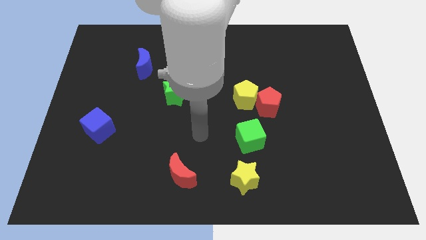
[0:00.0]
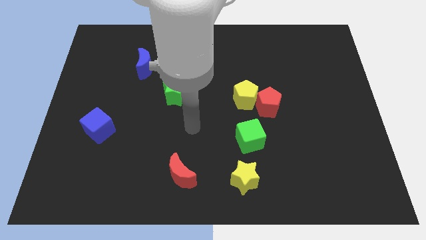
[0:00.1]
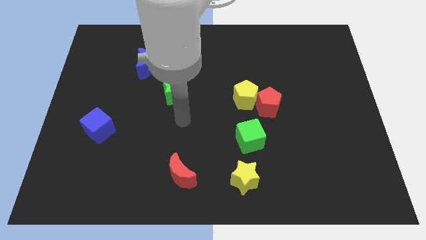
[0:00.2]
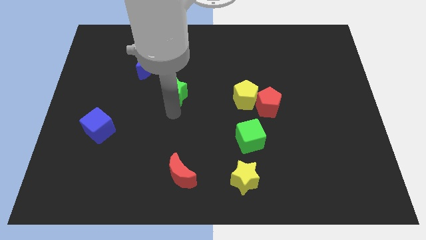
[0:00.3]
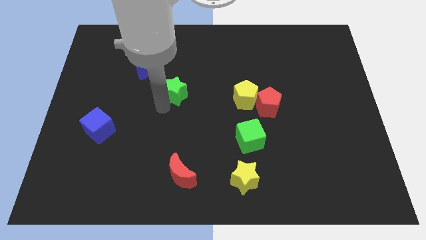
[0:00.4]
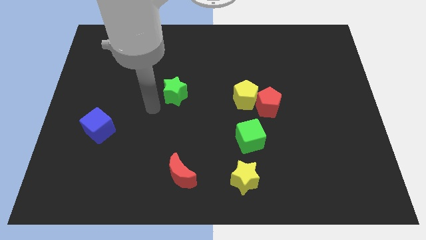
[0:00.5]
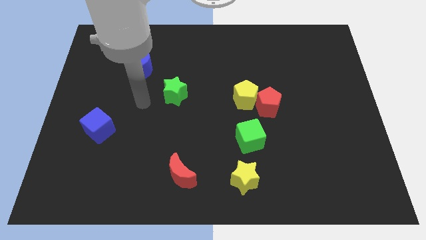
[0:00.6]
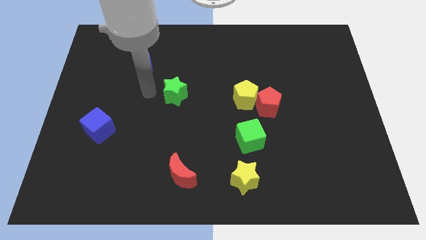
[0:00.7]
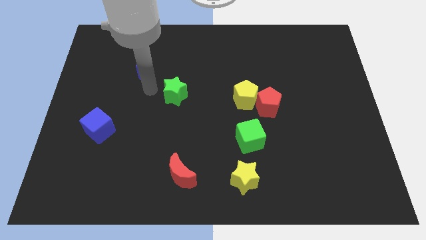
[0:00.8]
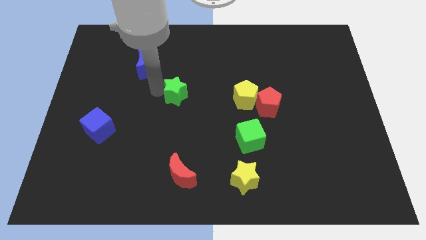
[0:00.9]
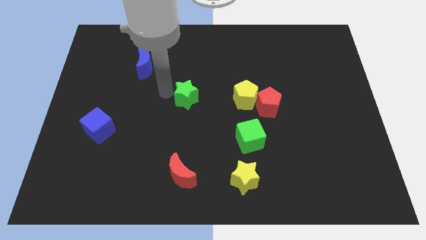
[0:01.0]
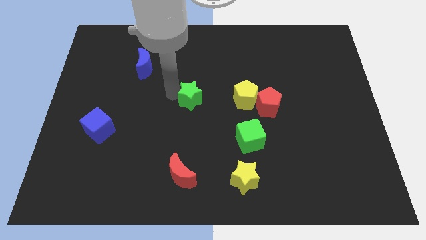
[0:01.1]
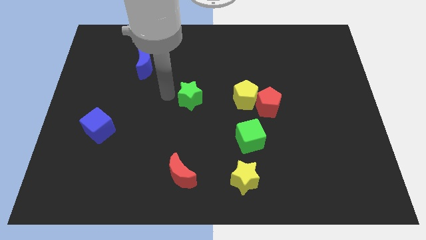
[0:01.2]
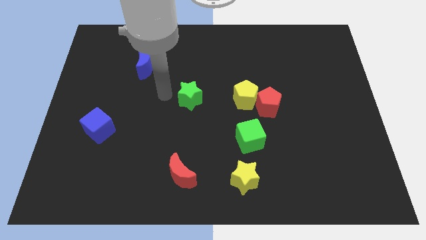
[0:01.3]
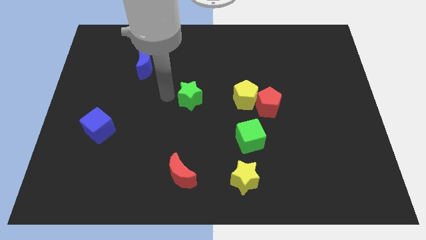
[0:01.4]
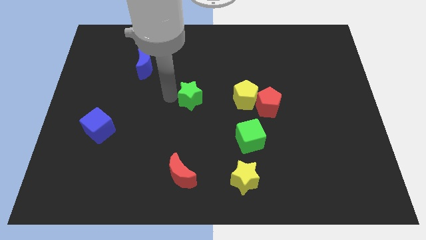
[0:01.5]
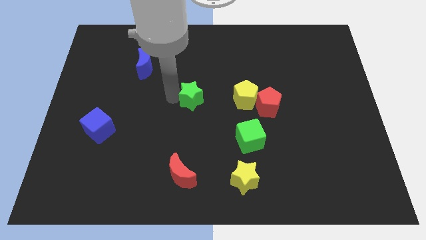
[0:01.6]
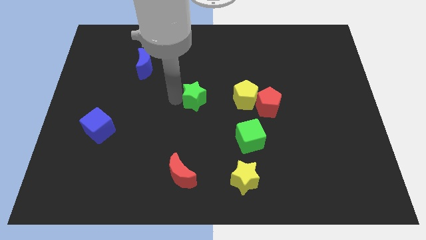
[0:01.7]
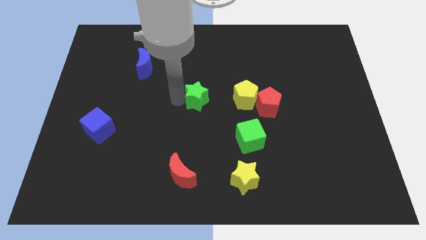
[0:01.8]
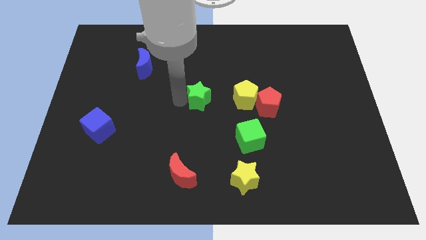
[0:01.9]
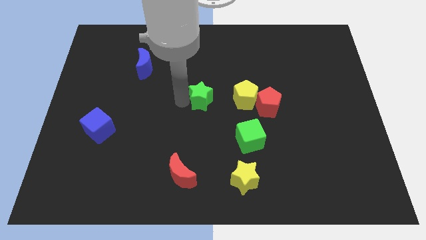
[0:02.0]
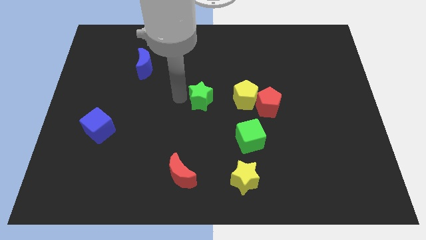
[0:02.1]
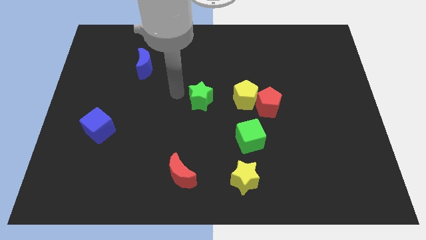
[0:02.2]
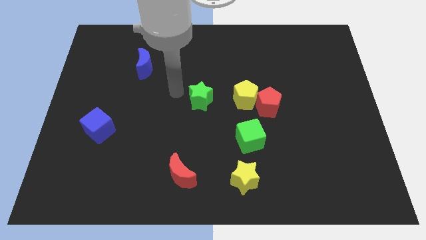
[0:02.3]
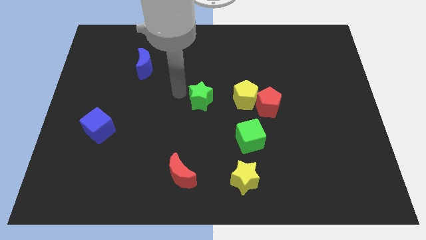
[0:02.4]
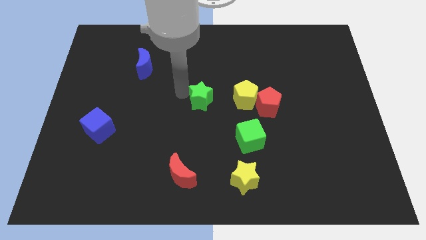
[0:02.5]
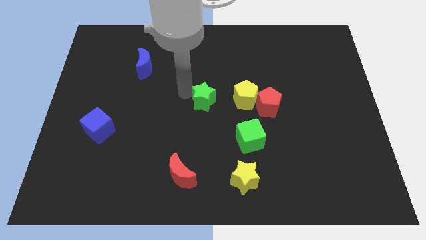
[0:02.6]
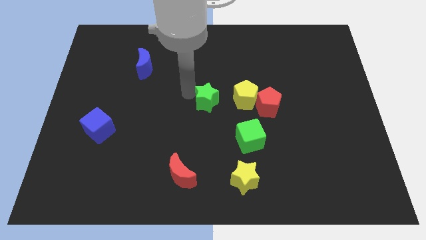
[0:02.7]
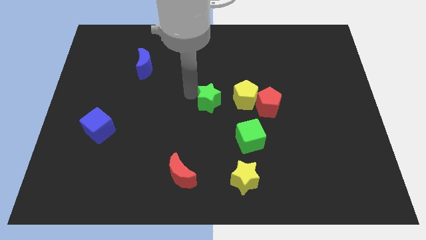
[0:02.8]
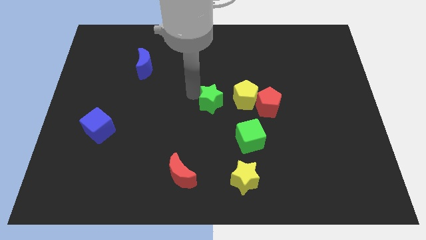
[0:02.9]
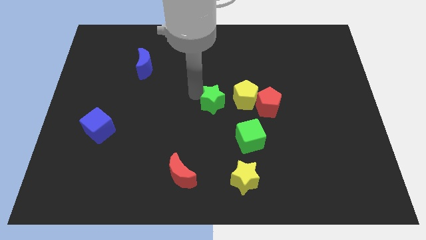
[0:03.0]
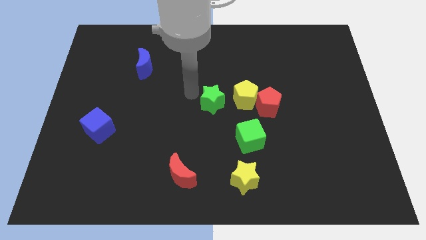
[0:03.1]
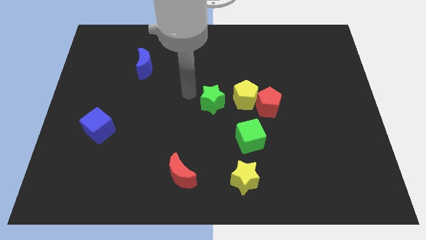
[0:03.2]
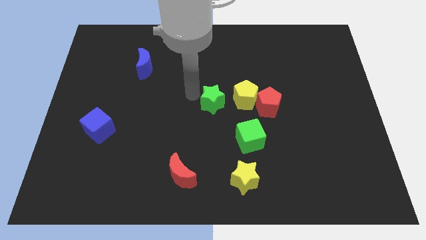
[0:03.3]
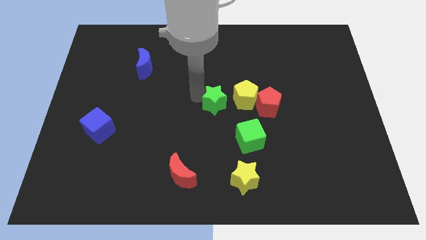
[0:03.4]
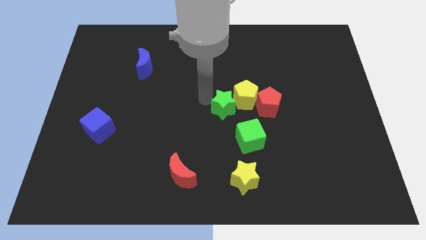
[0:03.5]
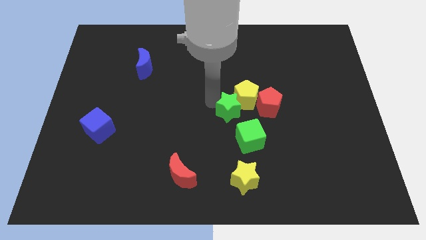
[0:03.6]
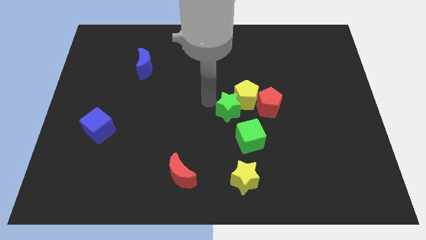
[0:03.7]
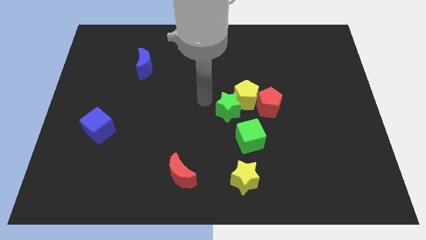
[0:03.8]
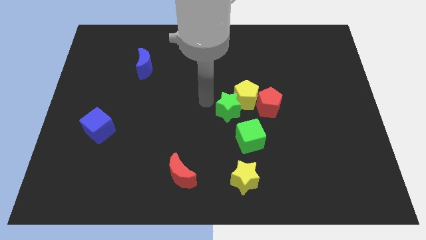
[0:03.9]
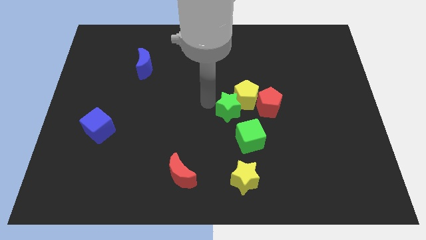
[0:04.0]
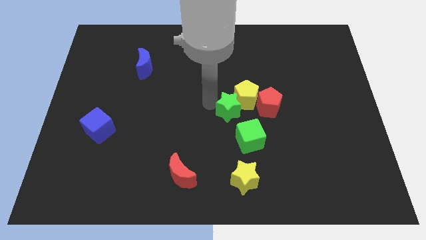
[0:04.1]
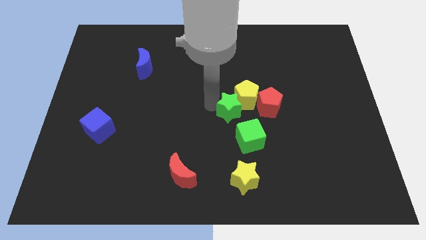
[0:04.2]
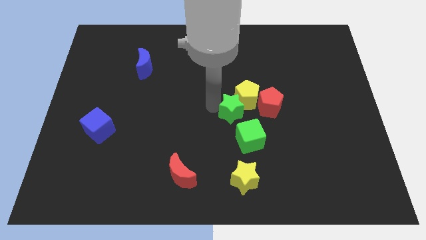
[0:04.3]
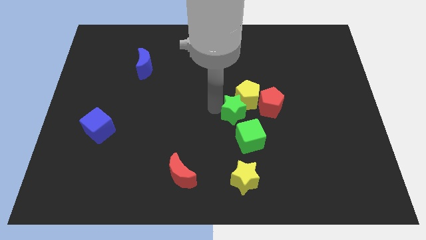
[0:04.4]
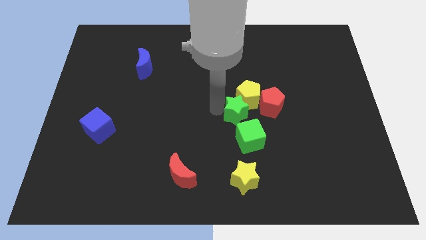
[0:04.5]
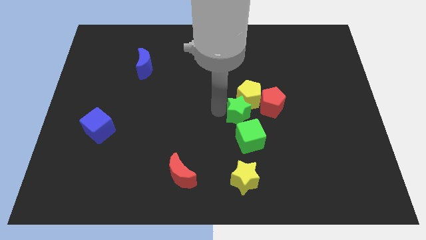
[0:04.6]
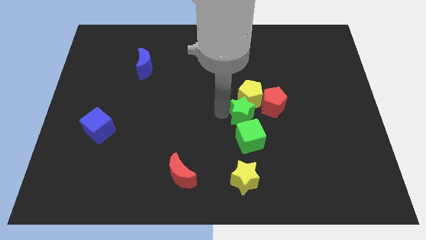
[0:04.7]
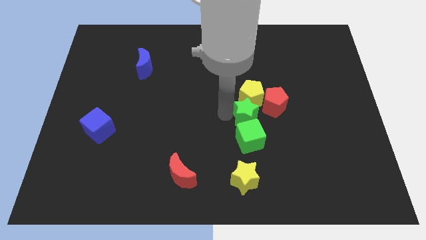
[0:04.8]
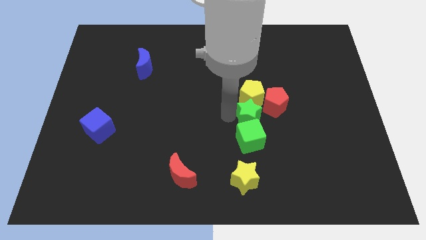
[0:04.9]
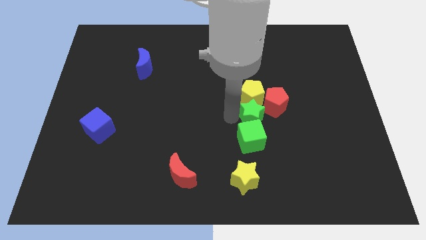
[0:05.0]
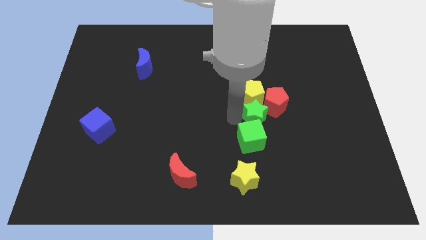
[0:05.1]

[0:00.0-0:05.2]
put the green star to the red pentagon

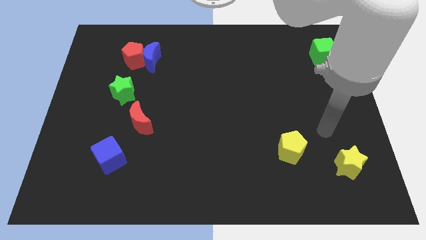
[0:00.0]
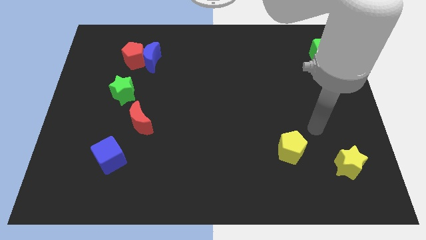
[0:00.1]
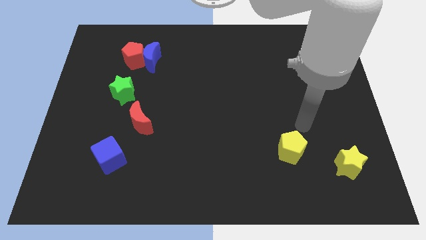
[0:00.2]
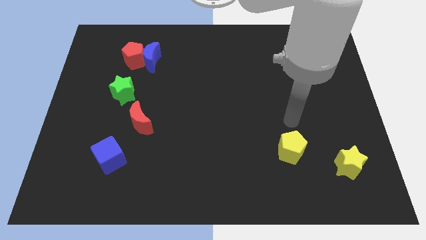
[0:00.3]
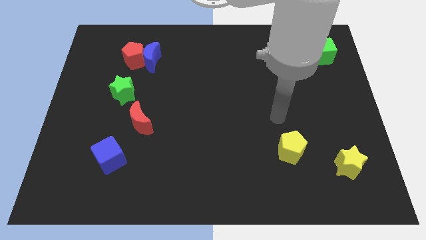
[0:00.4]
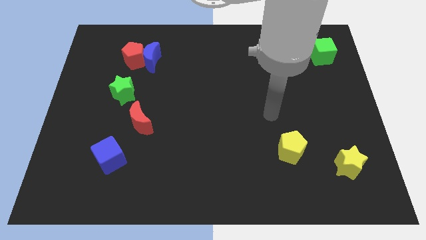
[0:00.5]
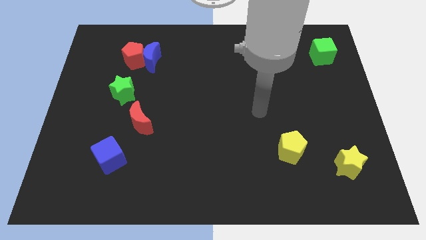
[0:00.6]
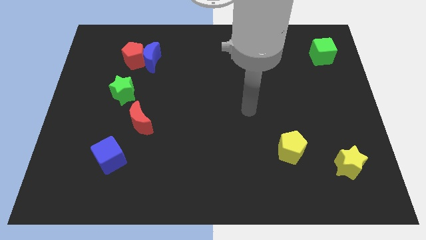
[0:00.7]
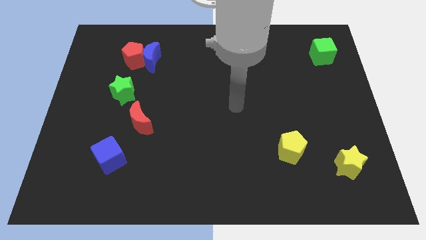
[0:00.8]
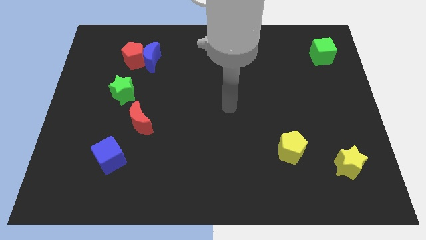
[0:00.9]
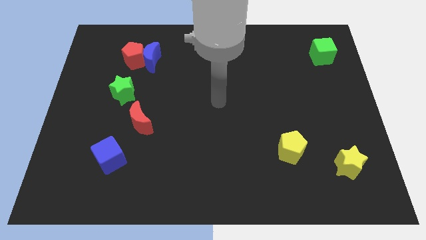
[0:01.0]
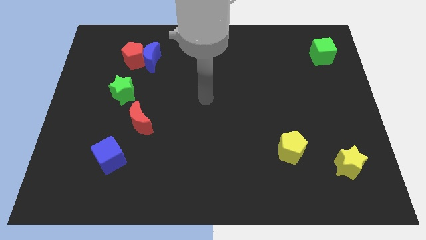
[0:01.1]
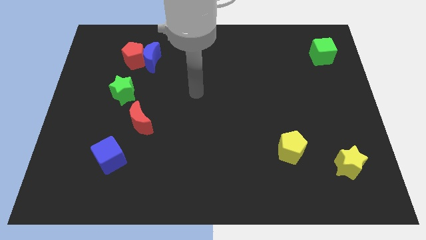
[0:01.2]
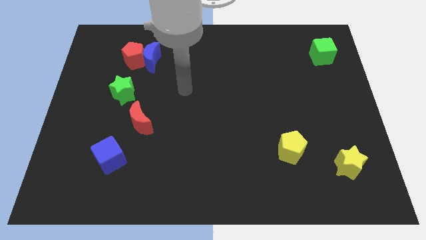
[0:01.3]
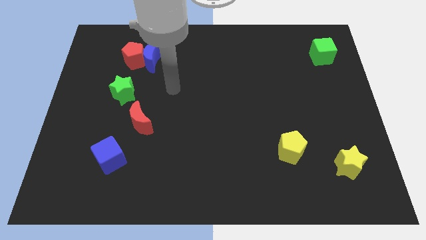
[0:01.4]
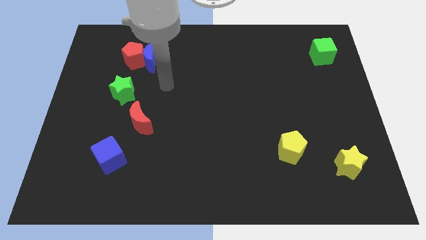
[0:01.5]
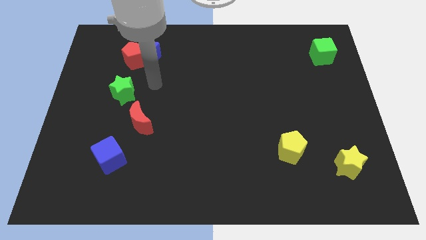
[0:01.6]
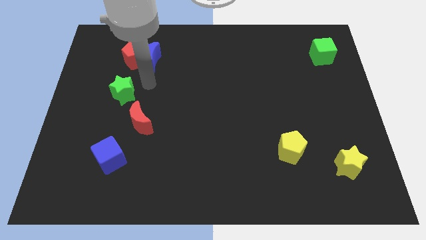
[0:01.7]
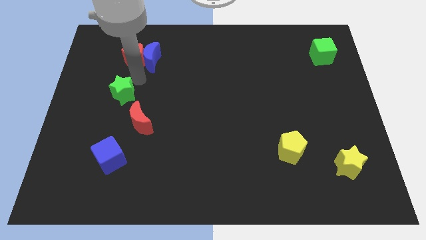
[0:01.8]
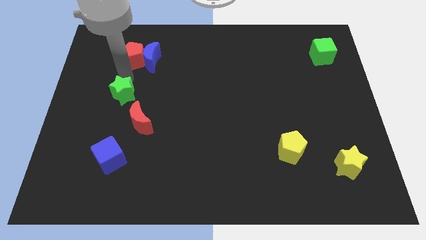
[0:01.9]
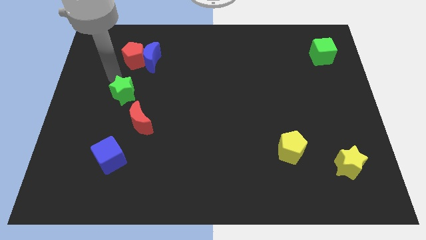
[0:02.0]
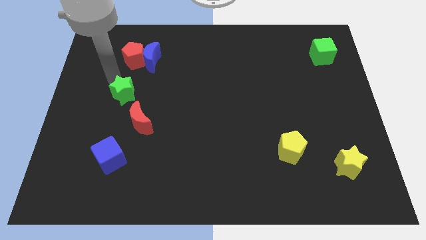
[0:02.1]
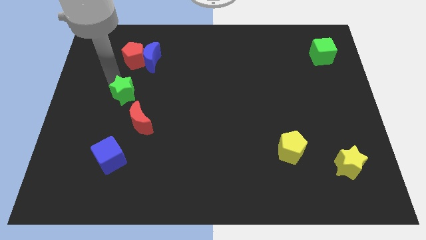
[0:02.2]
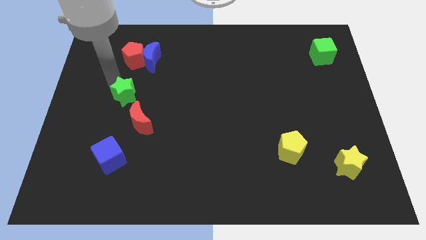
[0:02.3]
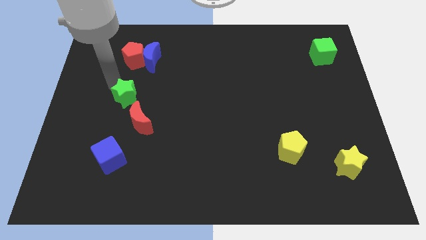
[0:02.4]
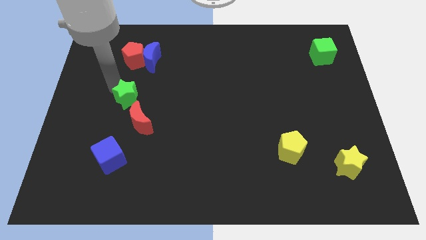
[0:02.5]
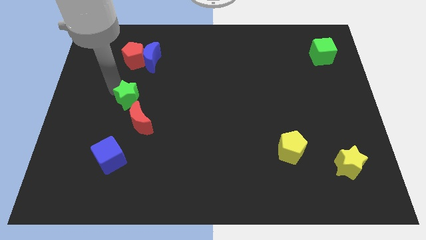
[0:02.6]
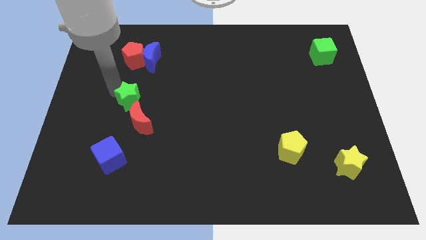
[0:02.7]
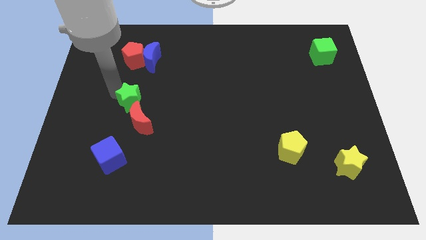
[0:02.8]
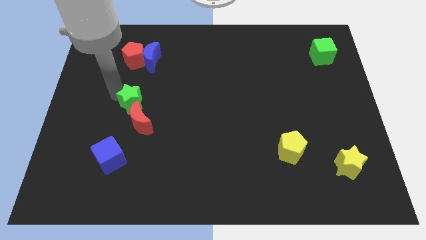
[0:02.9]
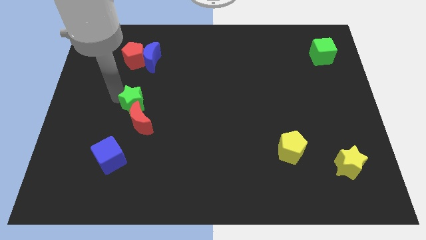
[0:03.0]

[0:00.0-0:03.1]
move the green star towards the red moon
